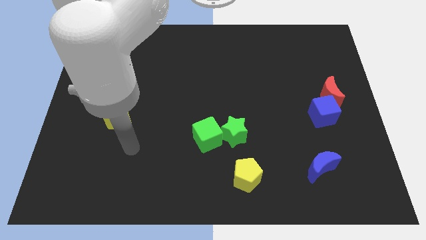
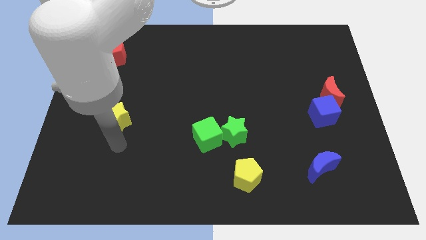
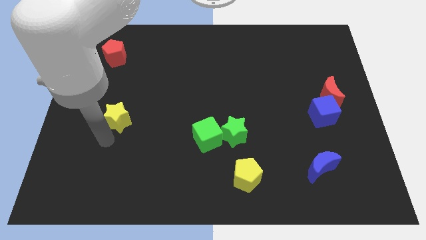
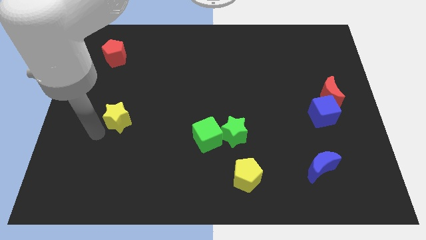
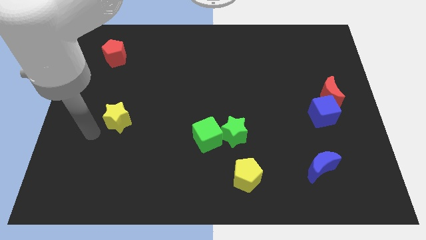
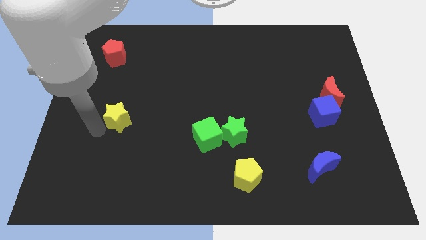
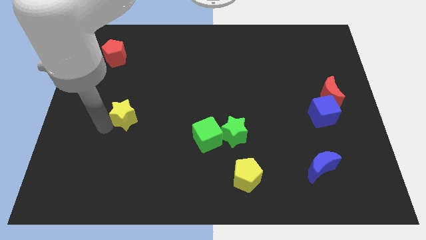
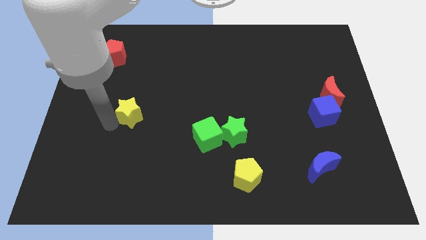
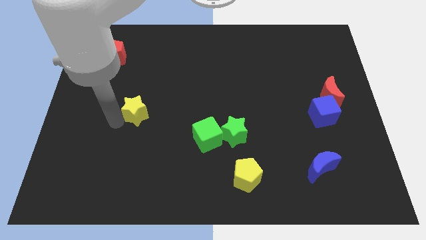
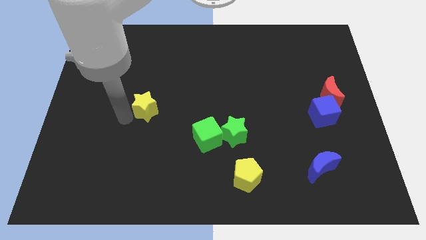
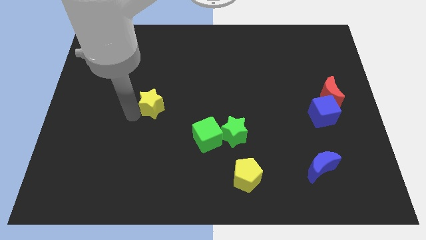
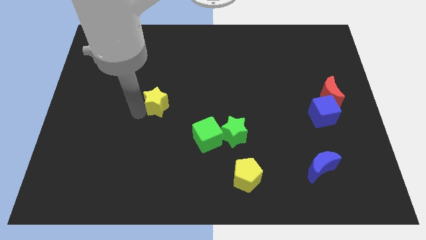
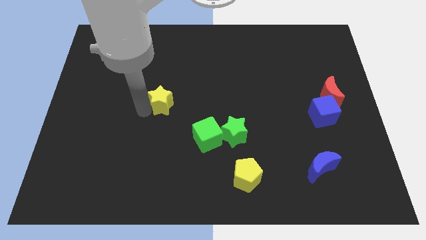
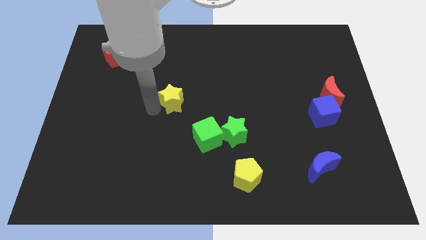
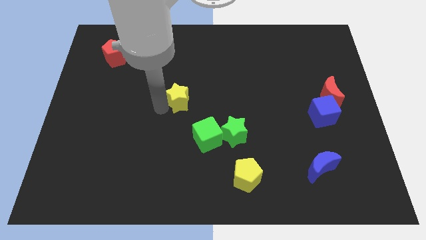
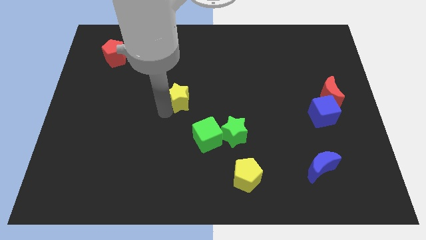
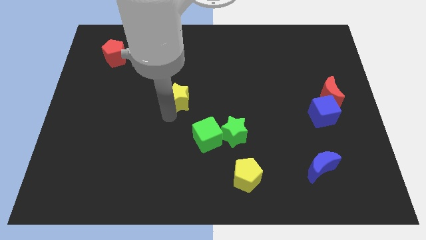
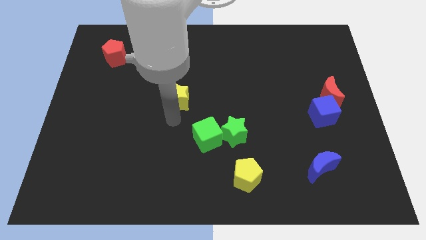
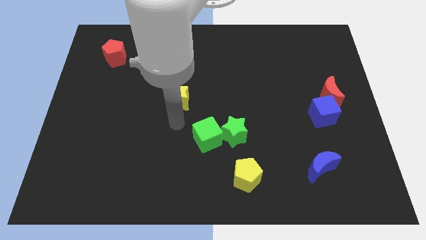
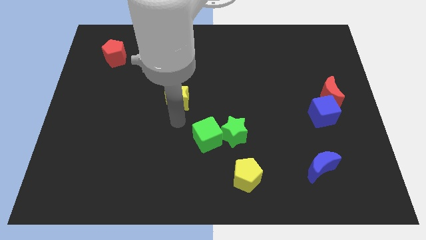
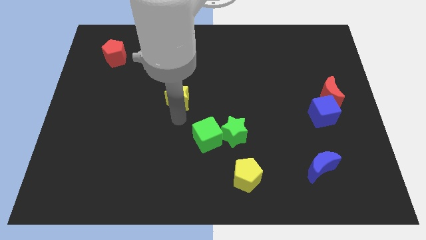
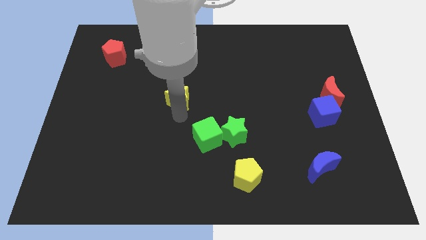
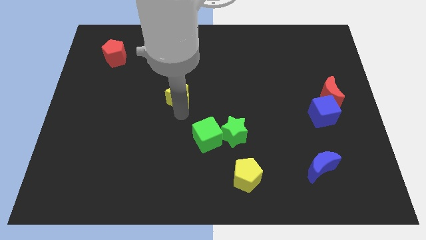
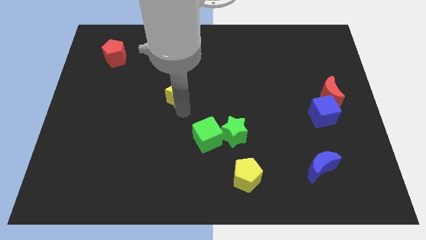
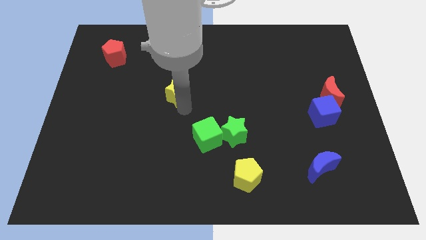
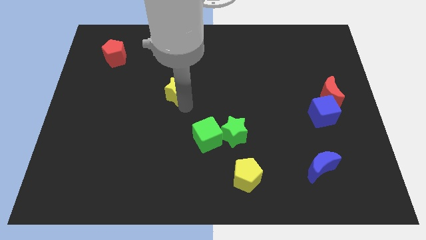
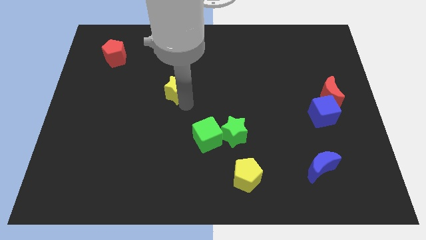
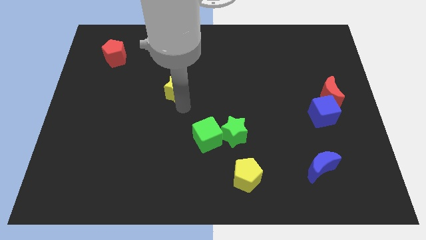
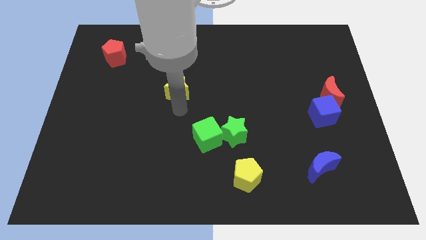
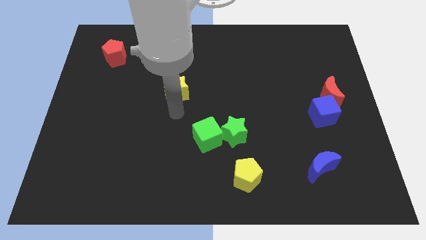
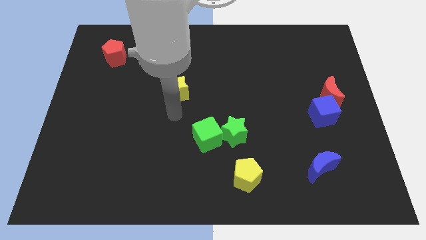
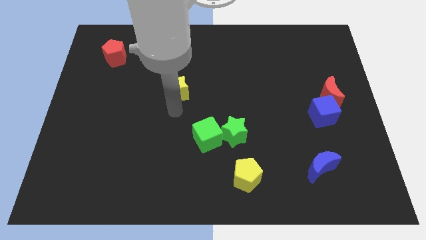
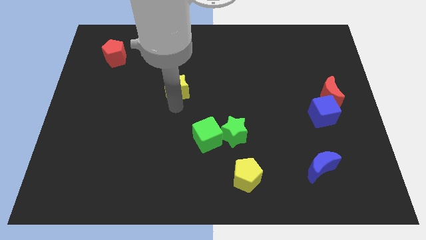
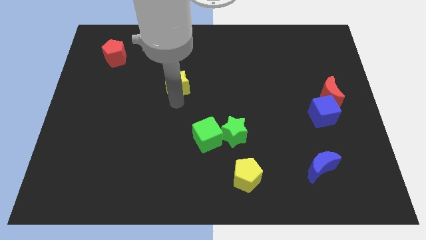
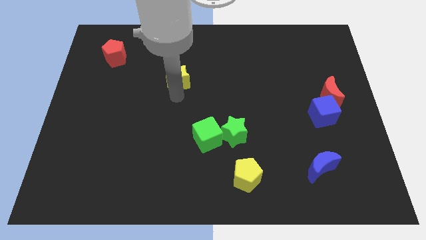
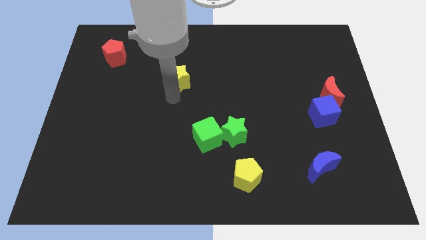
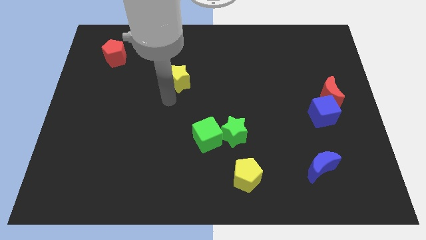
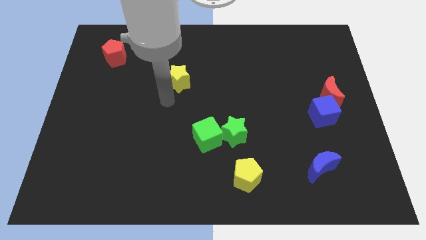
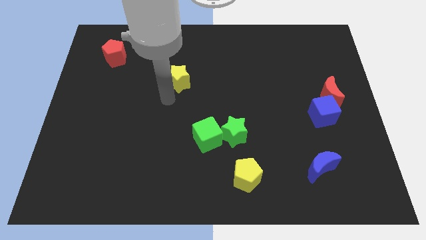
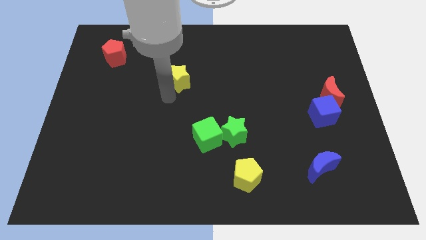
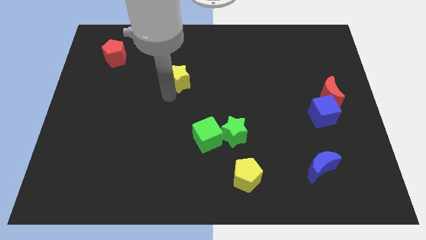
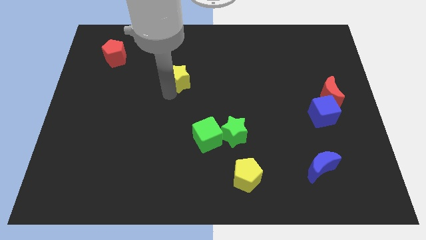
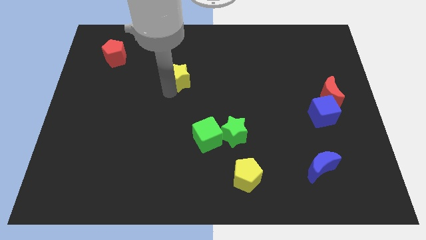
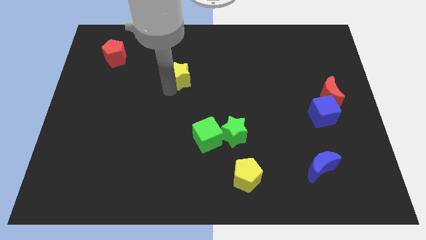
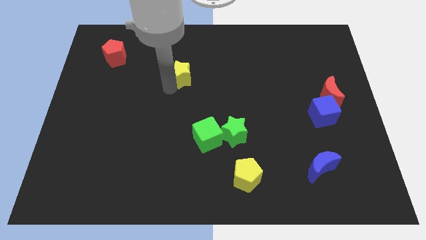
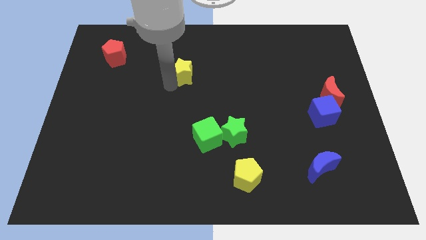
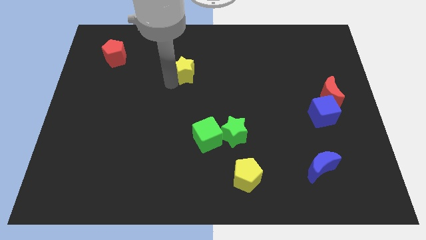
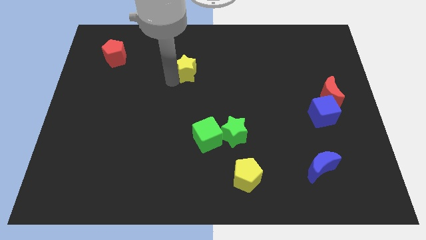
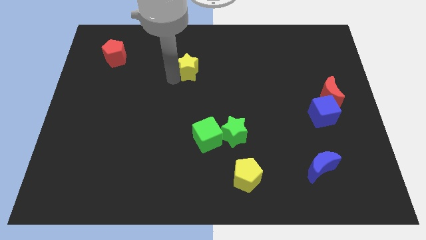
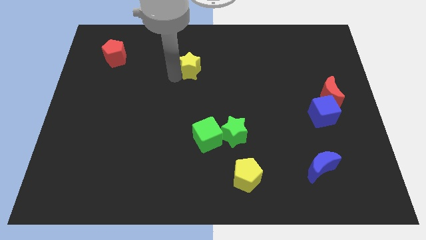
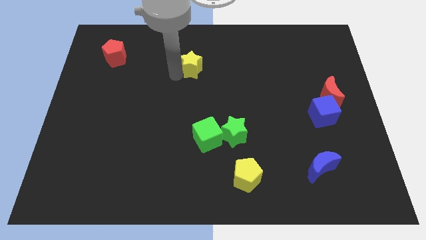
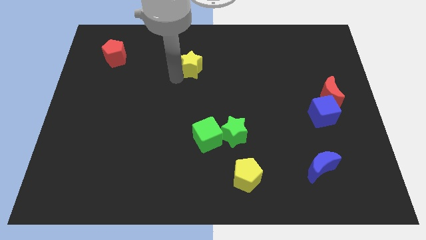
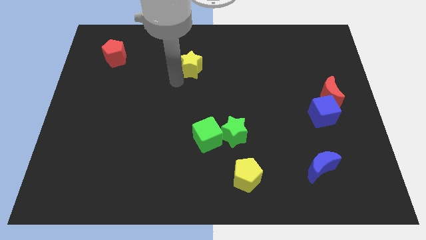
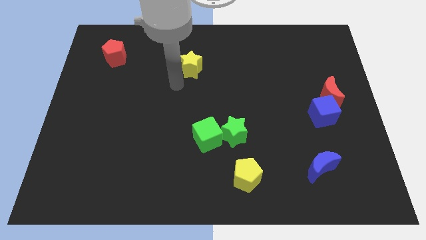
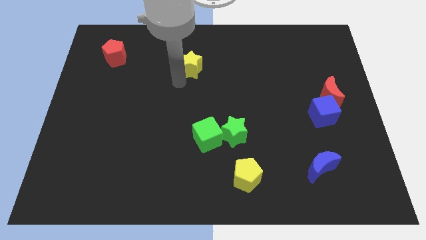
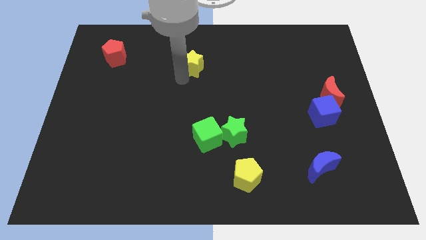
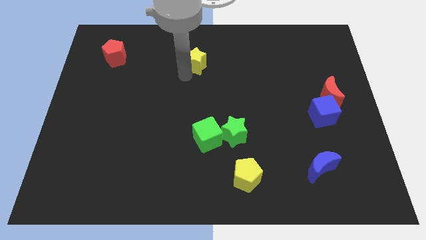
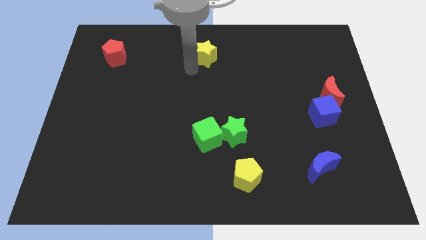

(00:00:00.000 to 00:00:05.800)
put the yellow star to the top

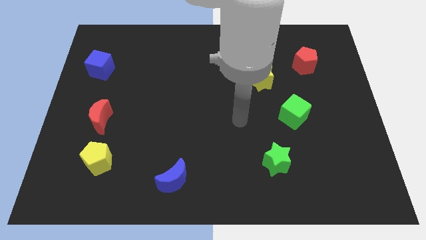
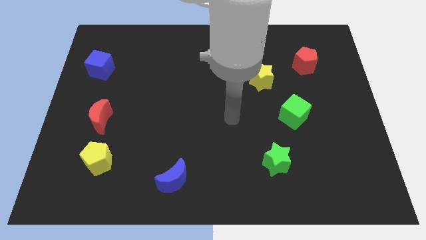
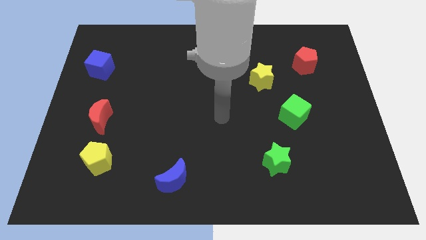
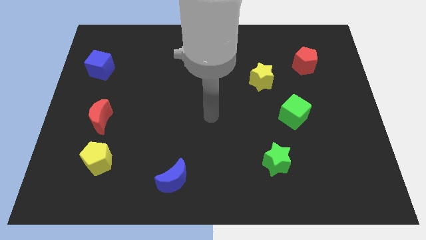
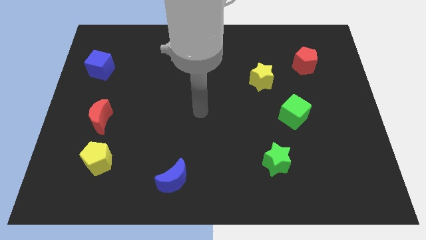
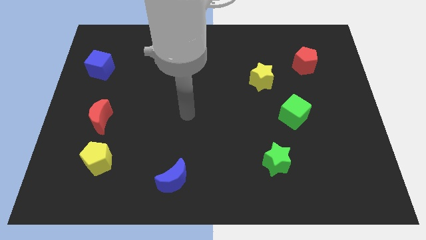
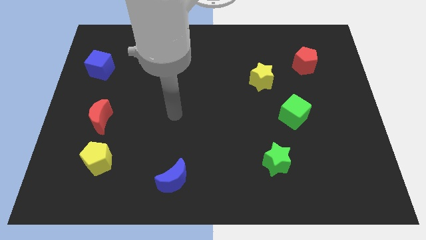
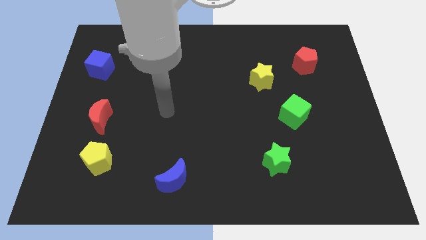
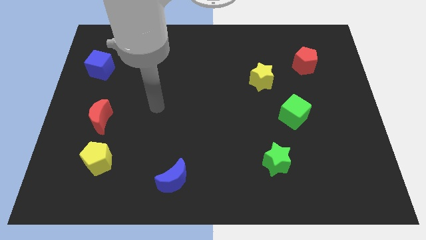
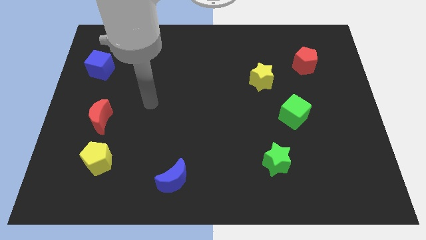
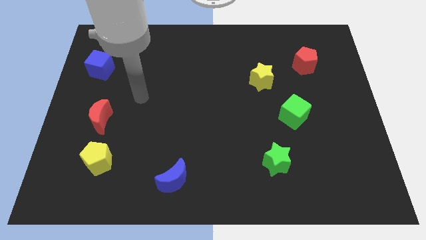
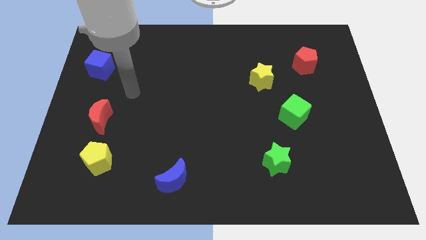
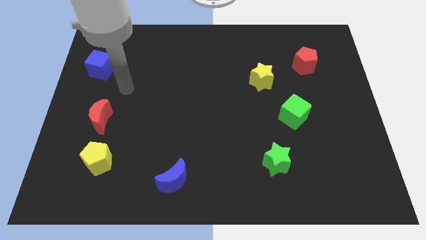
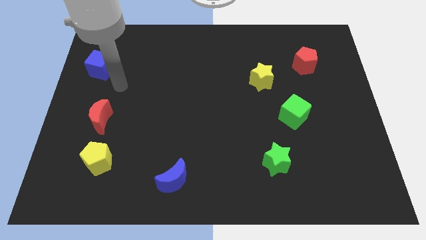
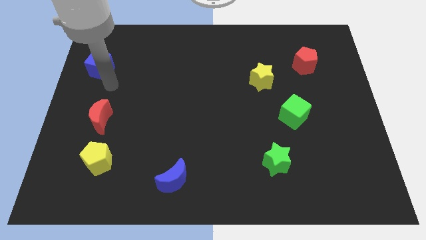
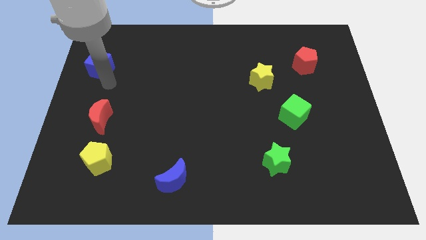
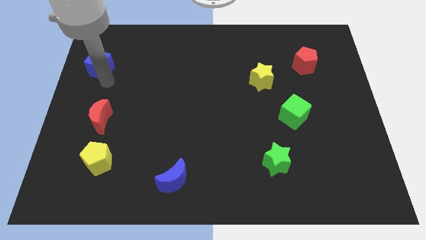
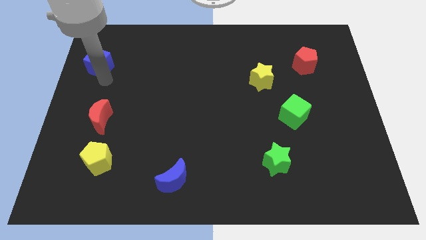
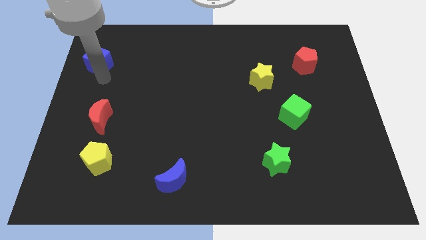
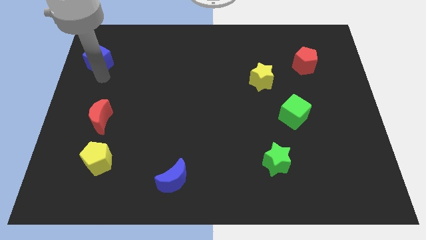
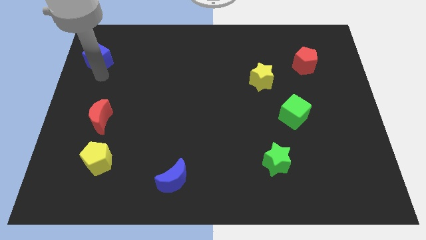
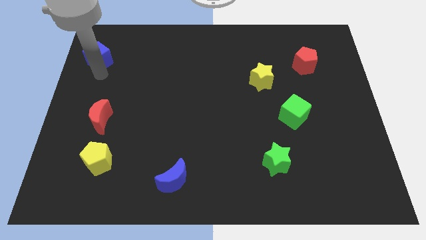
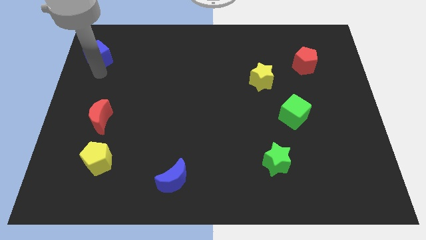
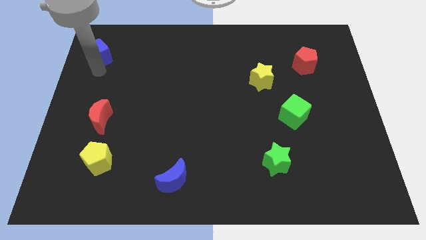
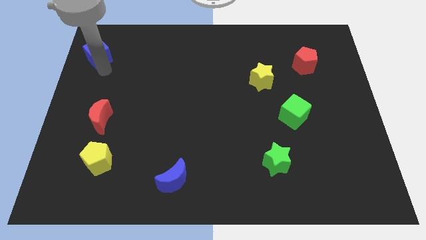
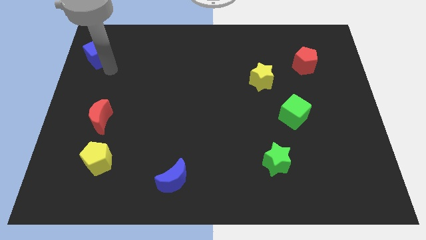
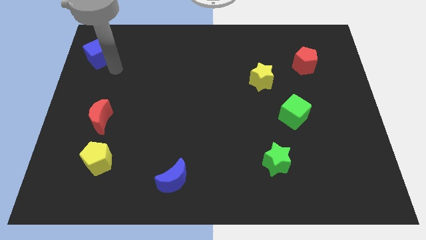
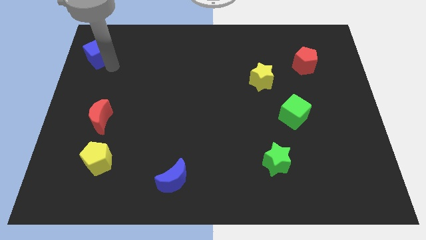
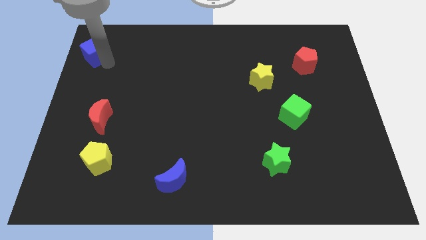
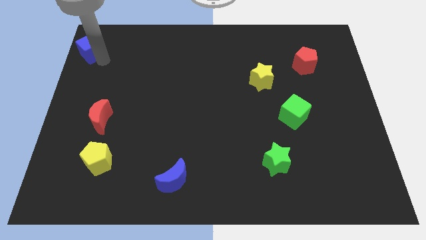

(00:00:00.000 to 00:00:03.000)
push the blue cube to the top left
